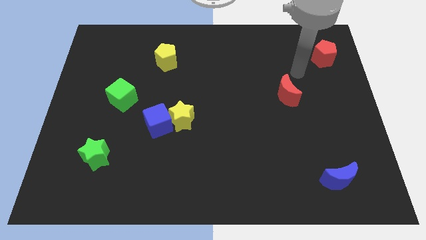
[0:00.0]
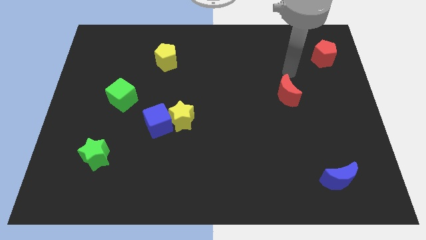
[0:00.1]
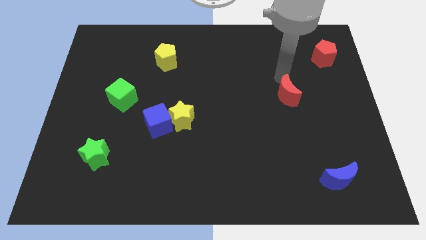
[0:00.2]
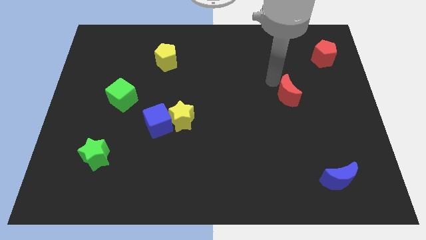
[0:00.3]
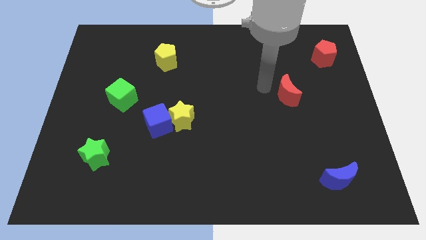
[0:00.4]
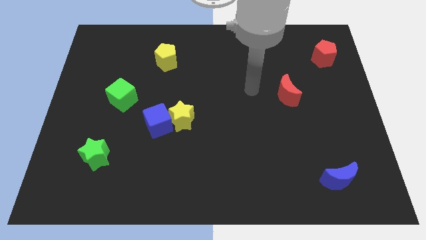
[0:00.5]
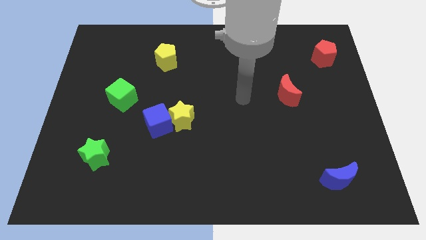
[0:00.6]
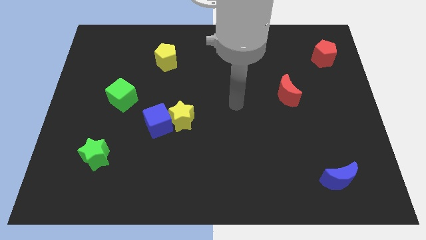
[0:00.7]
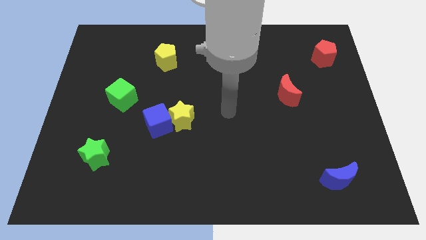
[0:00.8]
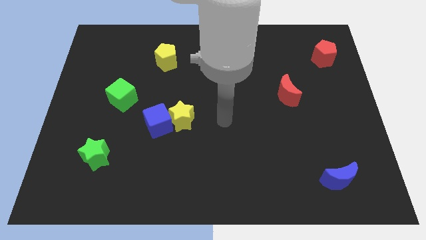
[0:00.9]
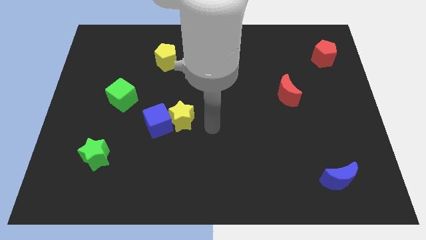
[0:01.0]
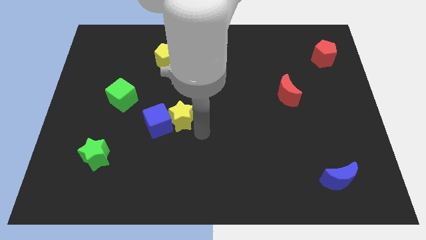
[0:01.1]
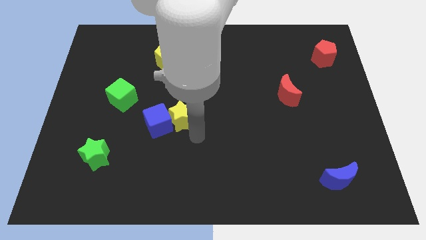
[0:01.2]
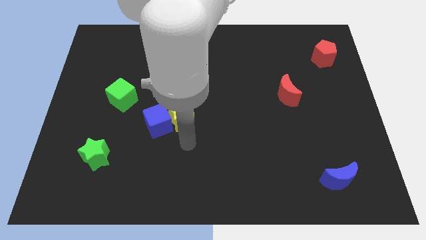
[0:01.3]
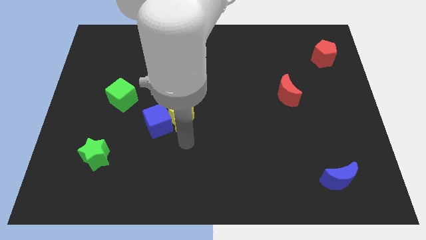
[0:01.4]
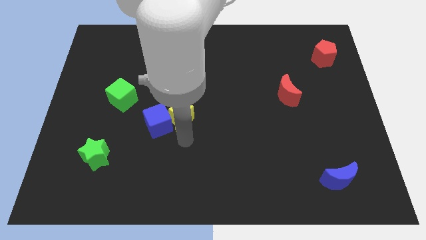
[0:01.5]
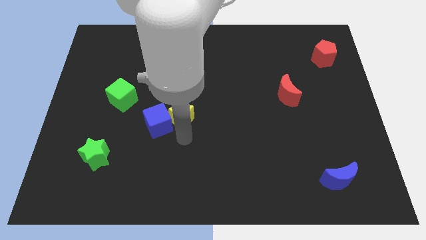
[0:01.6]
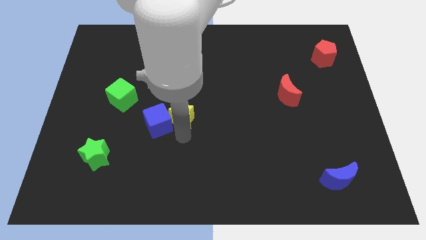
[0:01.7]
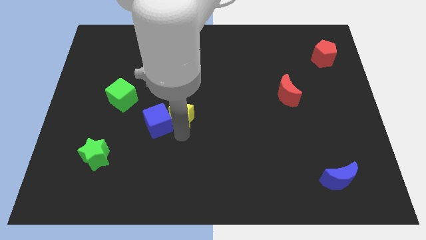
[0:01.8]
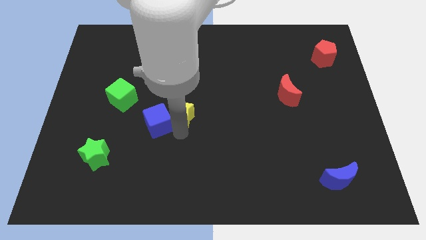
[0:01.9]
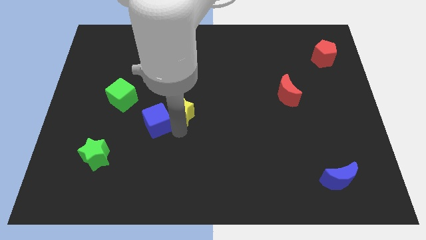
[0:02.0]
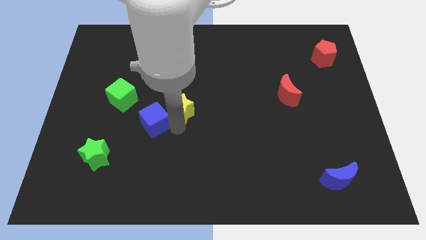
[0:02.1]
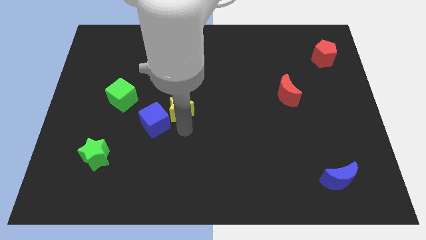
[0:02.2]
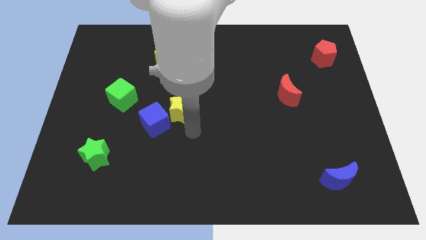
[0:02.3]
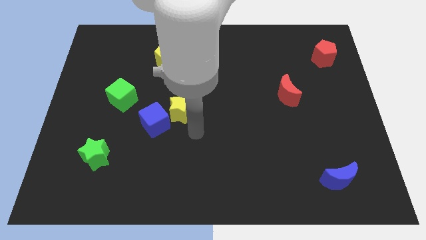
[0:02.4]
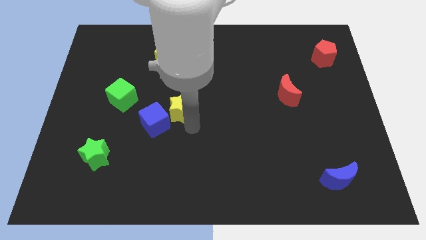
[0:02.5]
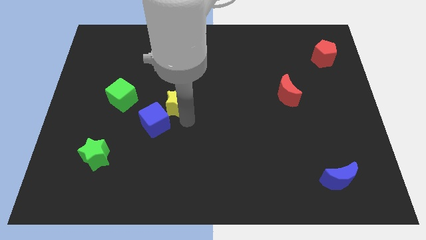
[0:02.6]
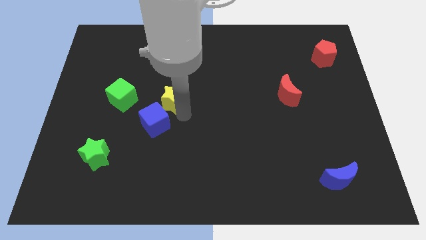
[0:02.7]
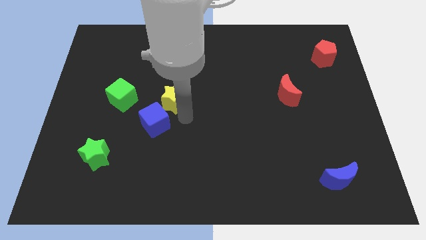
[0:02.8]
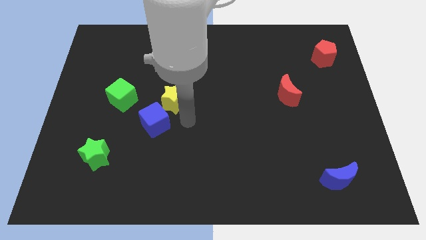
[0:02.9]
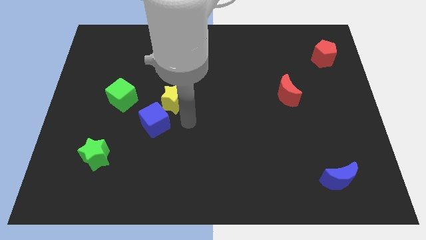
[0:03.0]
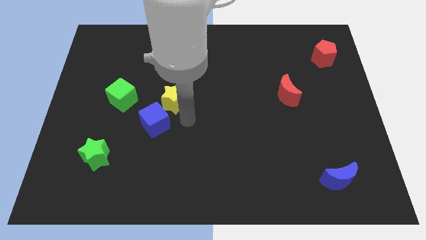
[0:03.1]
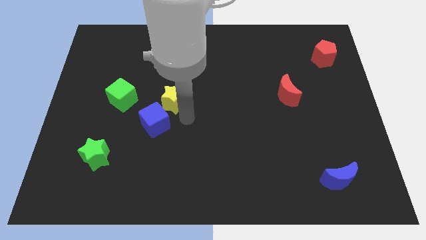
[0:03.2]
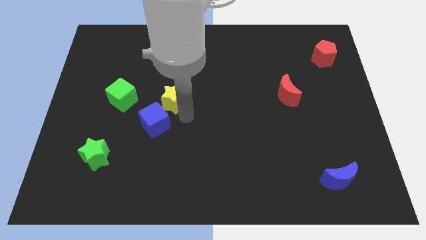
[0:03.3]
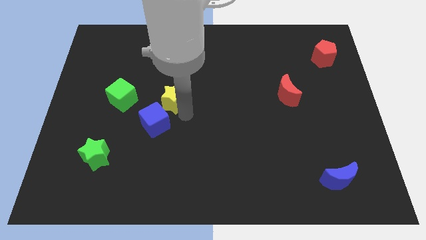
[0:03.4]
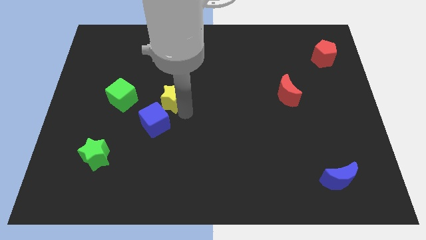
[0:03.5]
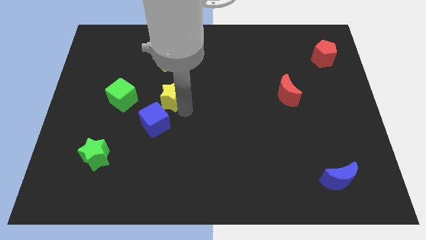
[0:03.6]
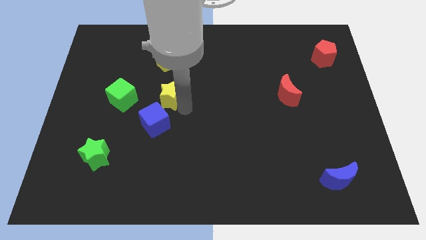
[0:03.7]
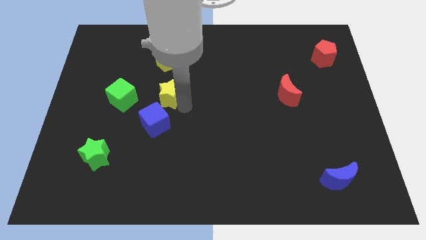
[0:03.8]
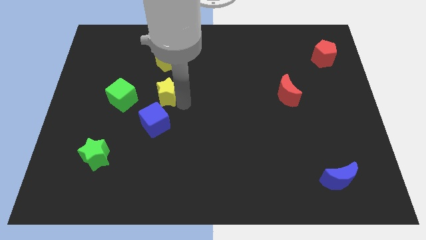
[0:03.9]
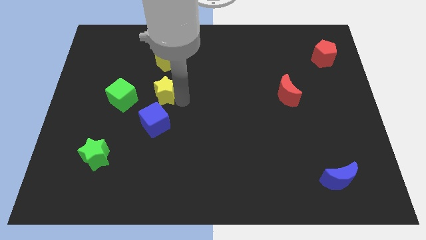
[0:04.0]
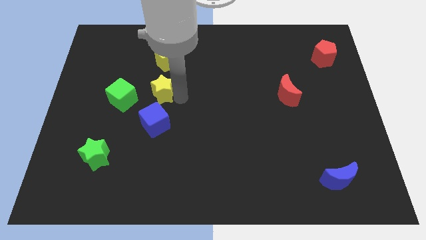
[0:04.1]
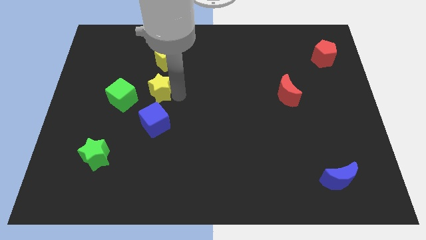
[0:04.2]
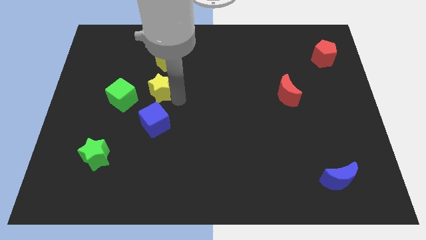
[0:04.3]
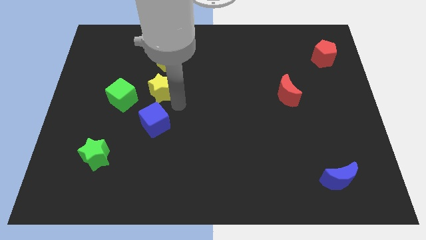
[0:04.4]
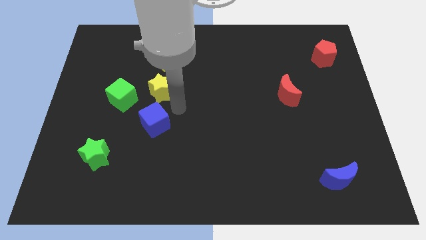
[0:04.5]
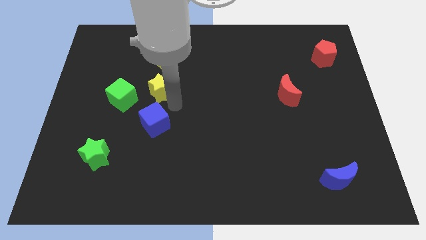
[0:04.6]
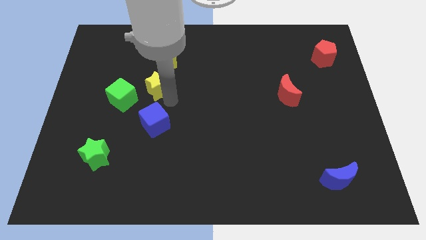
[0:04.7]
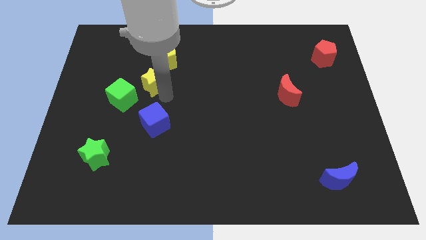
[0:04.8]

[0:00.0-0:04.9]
slide the yellow star to the bottom left side of the yellow pentagon

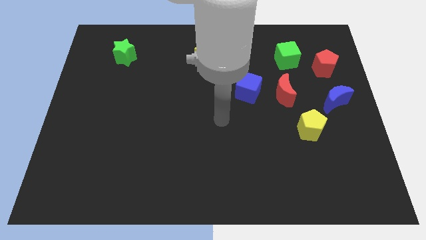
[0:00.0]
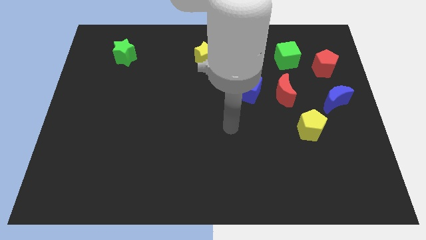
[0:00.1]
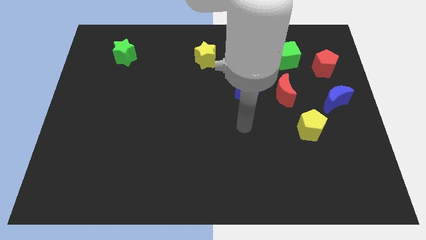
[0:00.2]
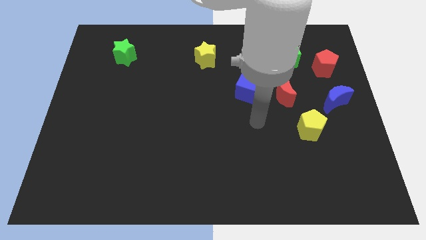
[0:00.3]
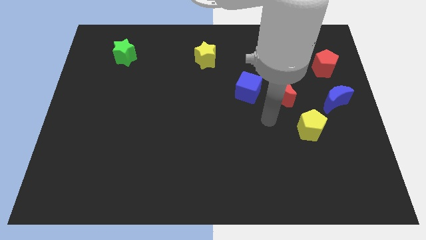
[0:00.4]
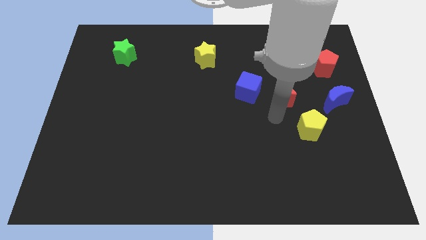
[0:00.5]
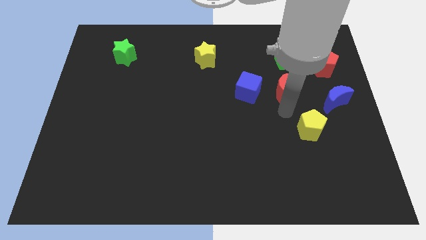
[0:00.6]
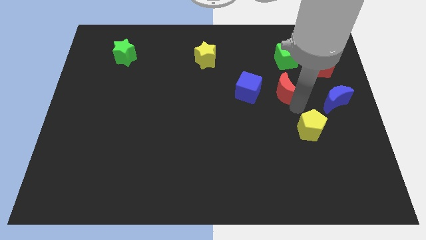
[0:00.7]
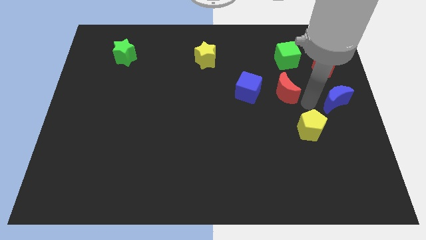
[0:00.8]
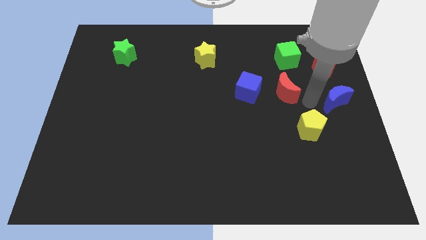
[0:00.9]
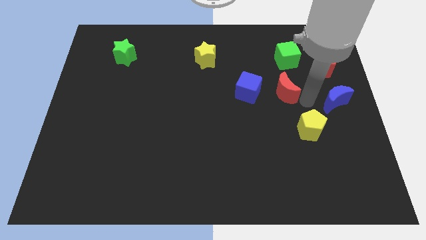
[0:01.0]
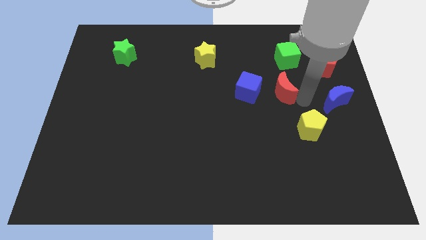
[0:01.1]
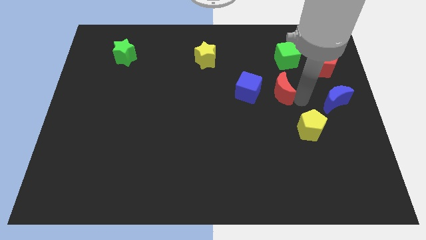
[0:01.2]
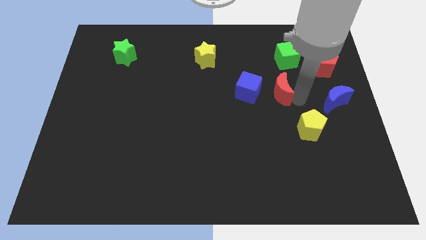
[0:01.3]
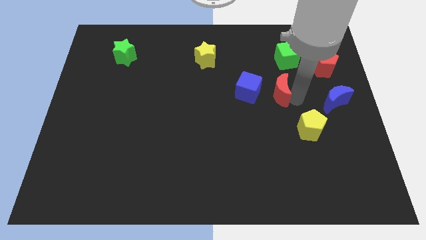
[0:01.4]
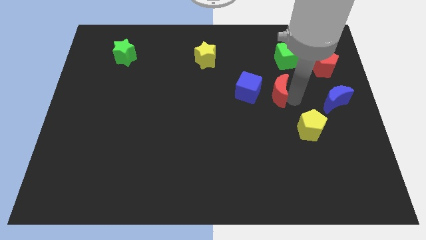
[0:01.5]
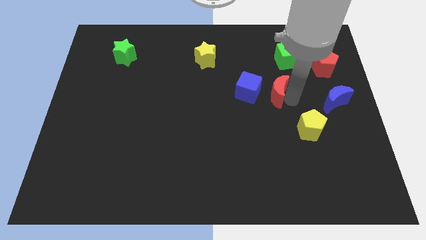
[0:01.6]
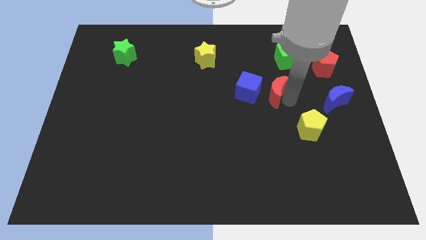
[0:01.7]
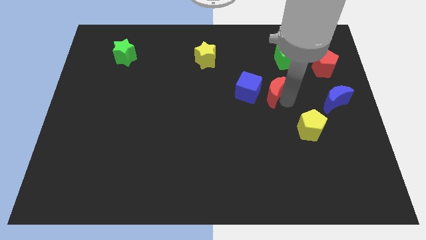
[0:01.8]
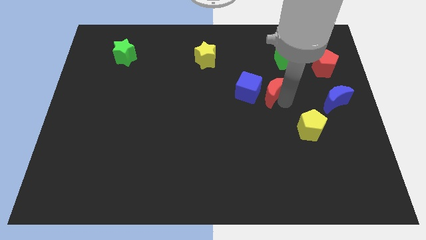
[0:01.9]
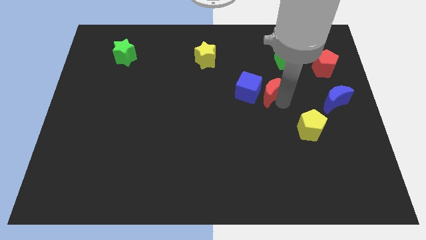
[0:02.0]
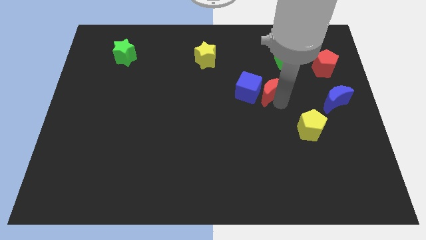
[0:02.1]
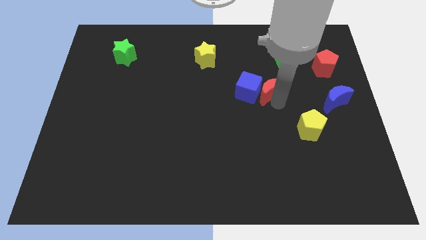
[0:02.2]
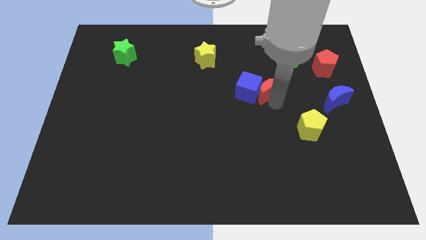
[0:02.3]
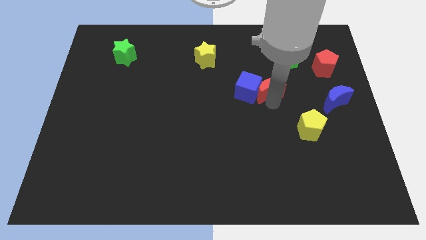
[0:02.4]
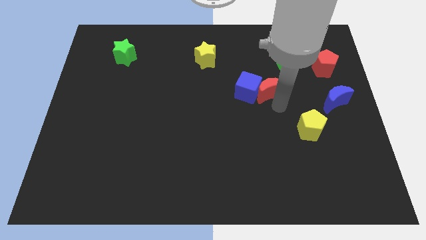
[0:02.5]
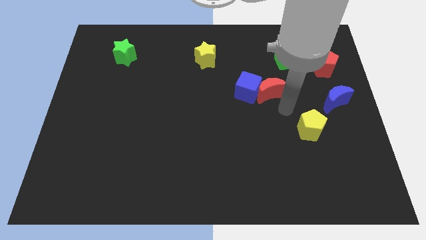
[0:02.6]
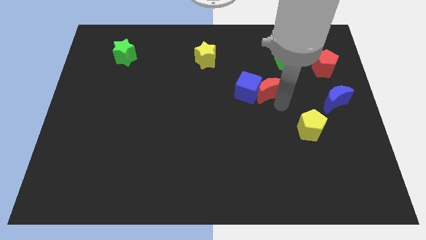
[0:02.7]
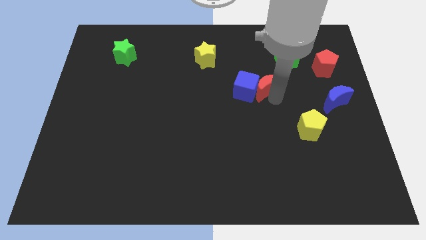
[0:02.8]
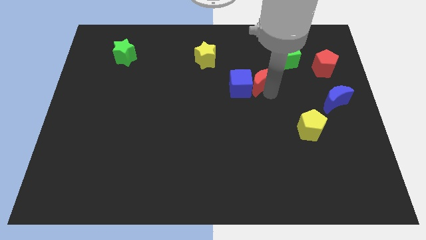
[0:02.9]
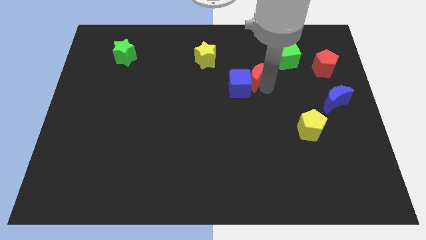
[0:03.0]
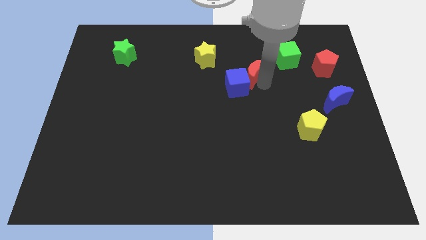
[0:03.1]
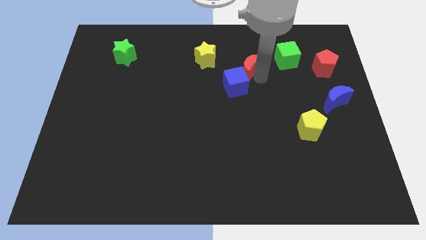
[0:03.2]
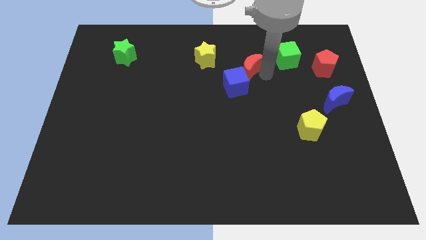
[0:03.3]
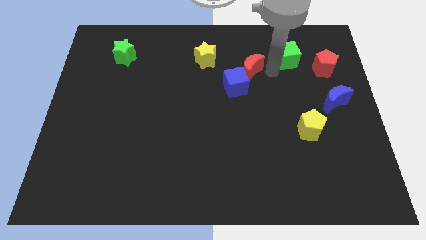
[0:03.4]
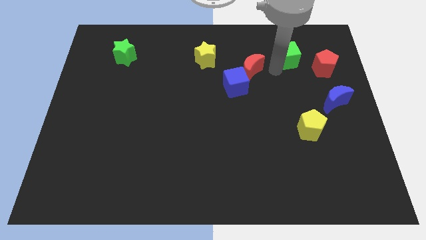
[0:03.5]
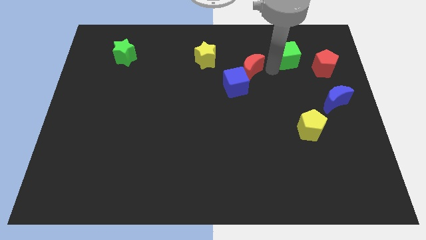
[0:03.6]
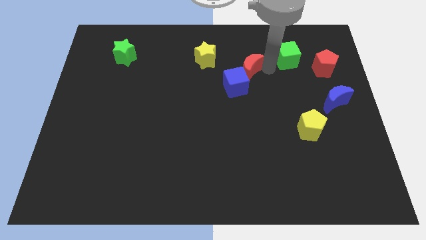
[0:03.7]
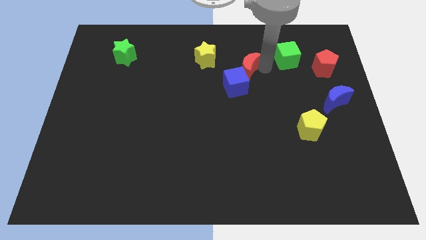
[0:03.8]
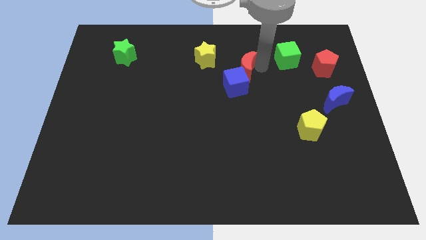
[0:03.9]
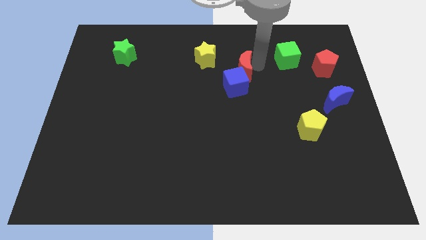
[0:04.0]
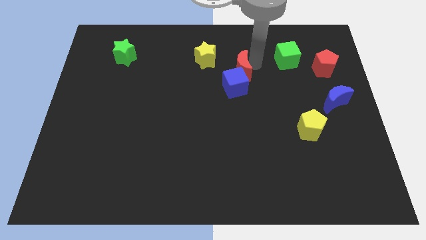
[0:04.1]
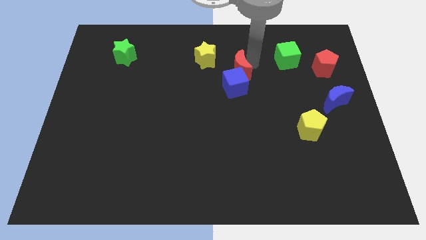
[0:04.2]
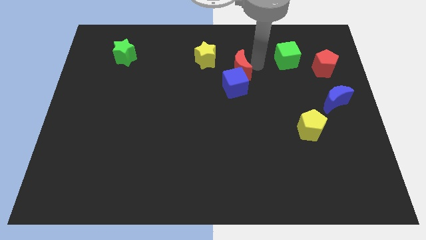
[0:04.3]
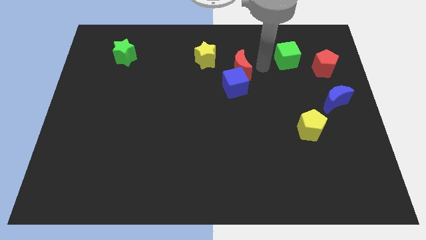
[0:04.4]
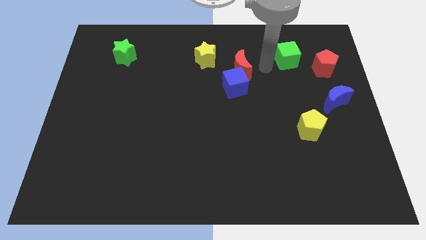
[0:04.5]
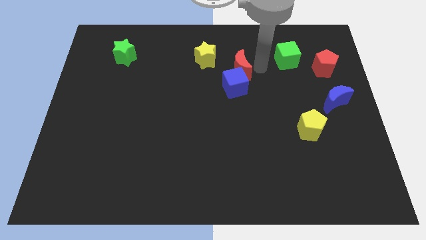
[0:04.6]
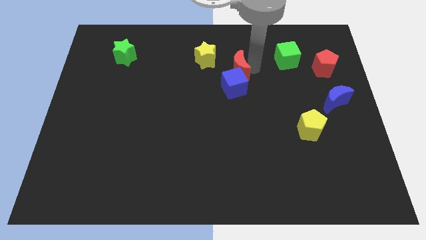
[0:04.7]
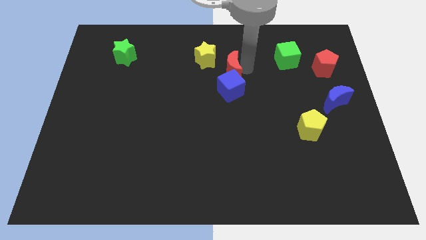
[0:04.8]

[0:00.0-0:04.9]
slide the red moon to the top left side of the blue cube
